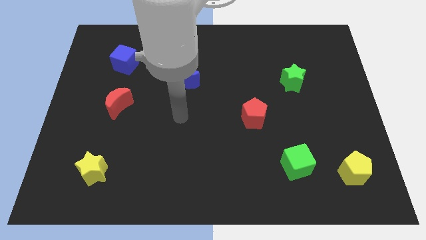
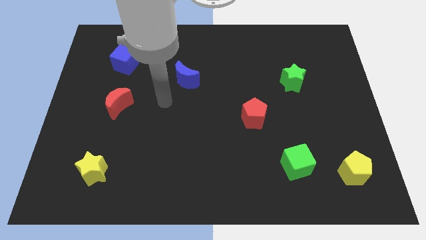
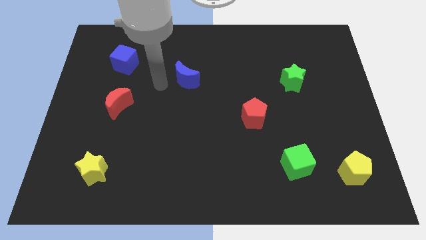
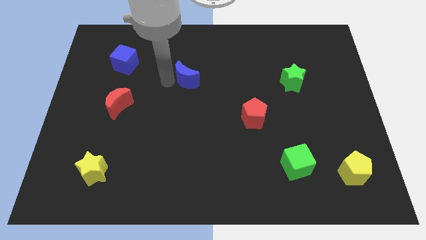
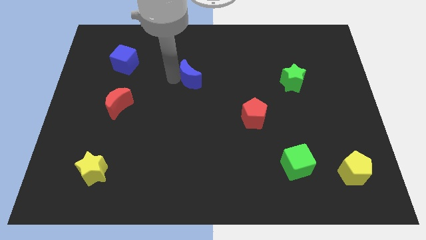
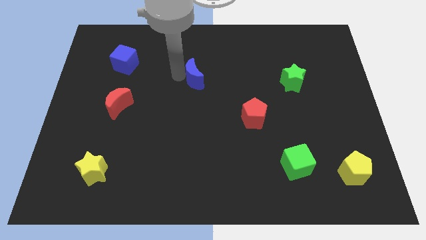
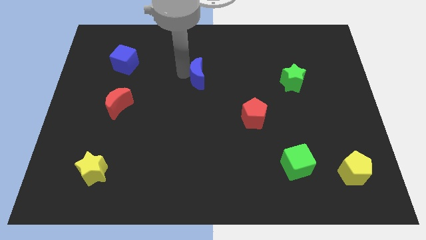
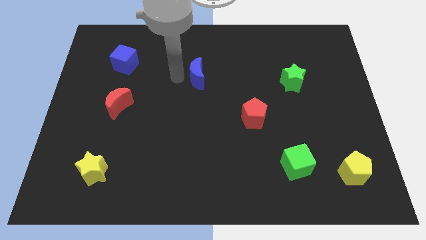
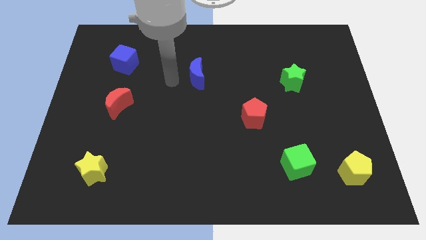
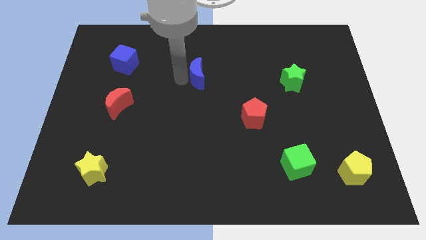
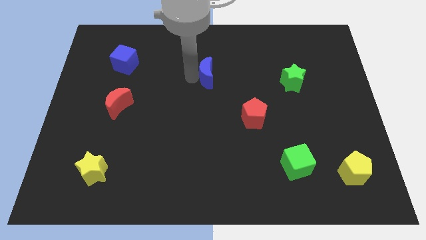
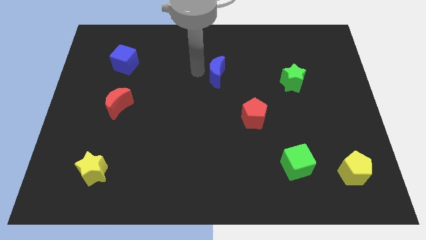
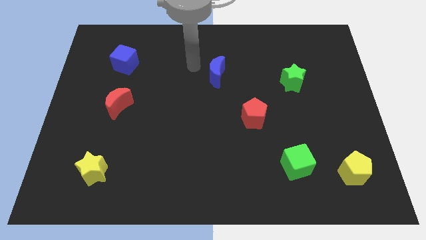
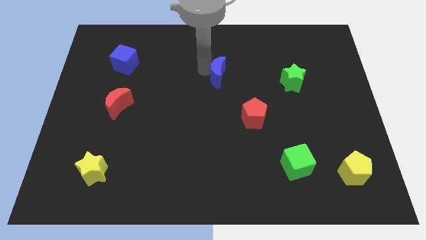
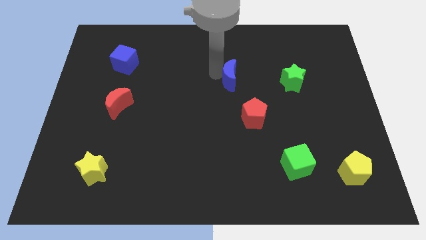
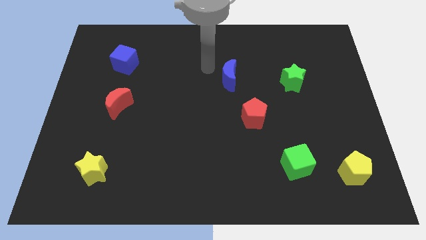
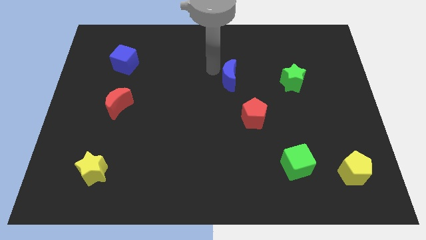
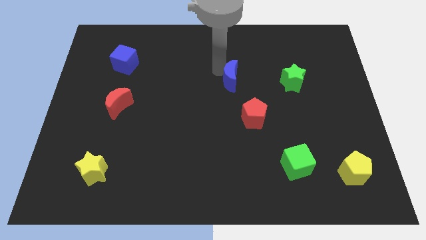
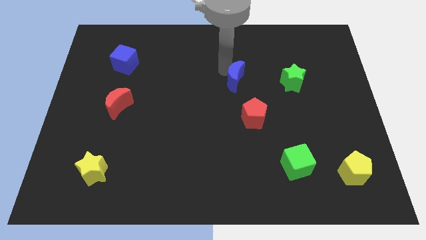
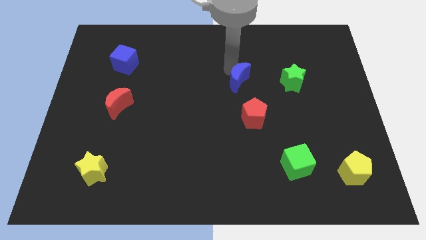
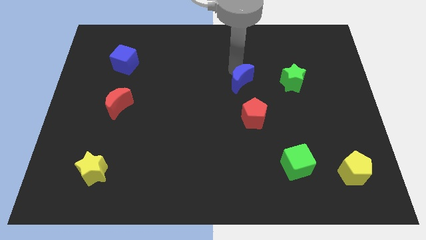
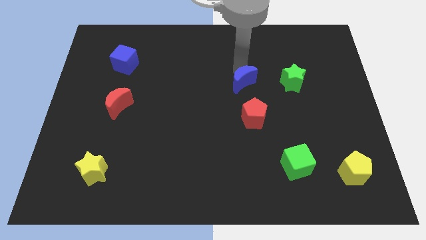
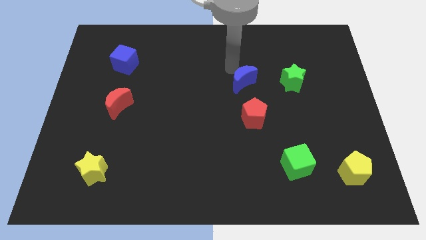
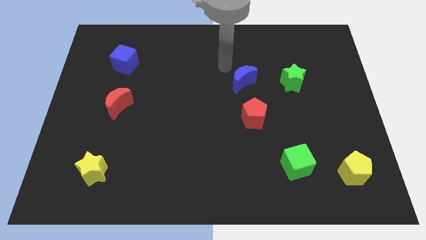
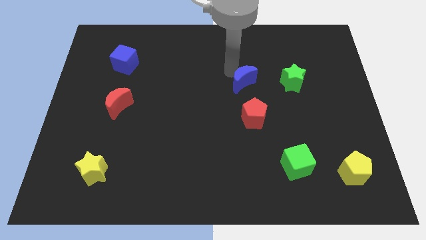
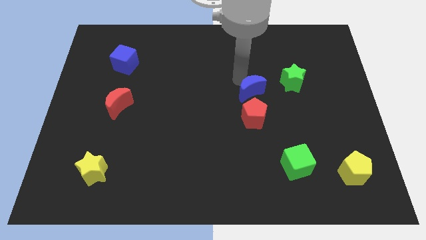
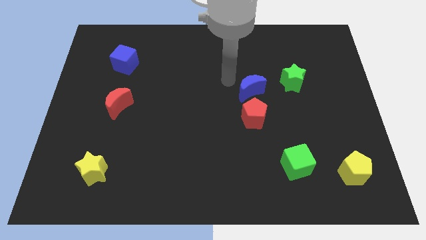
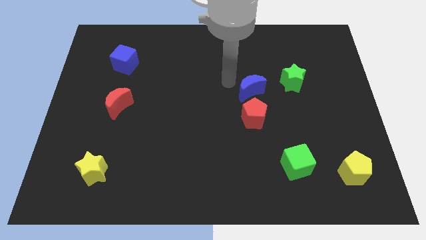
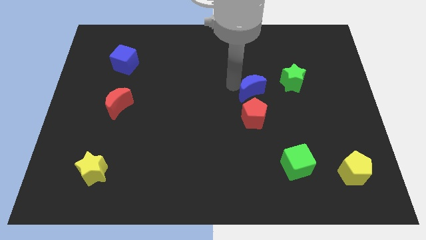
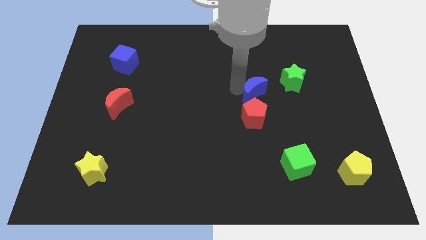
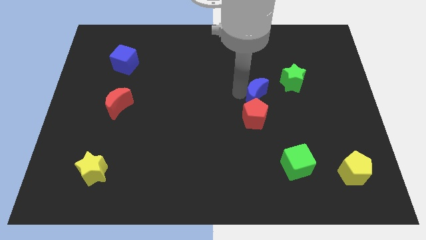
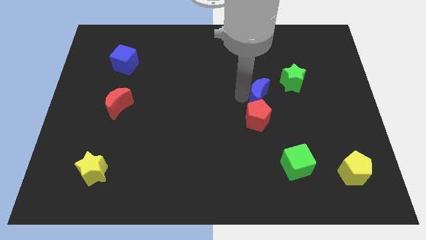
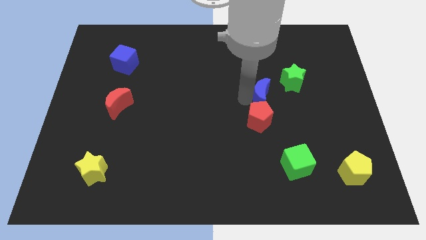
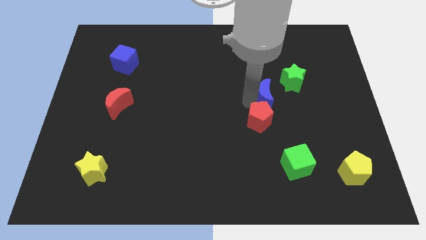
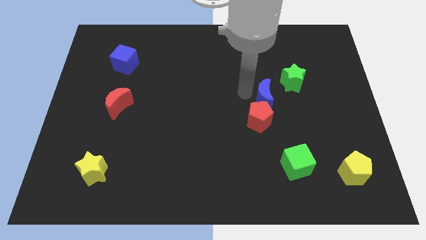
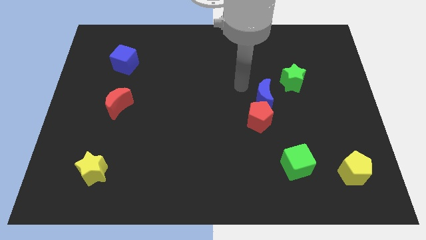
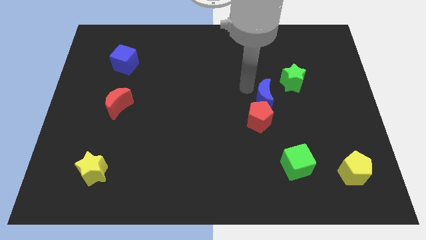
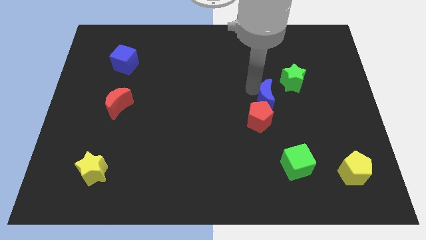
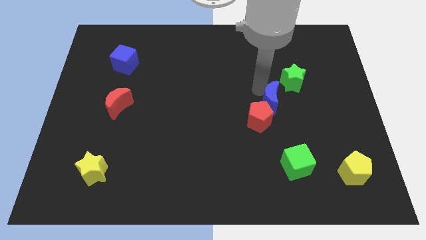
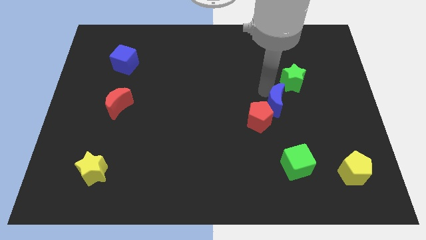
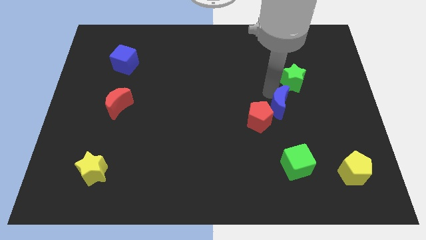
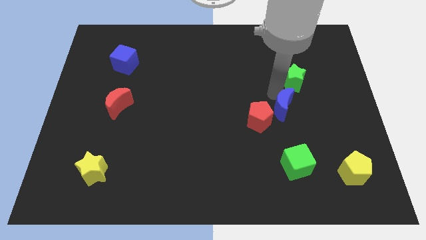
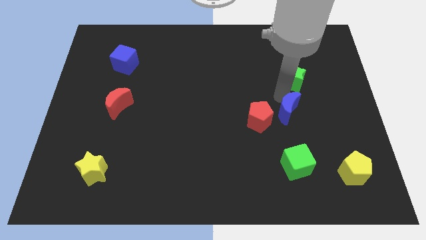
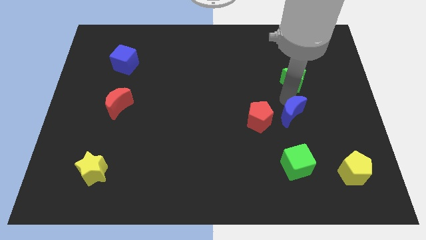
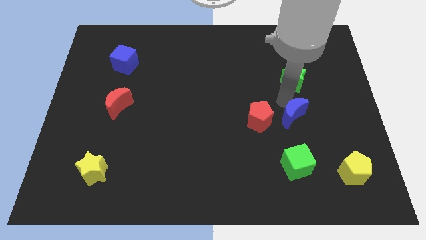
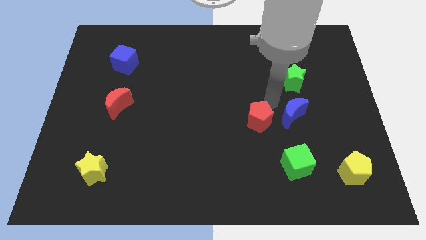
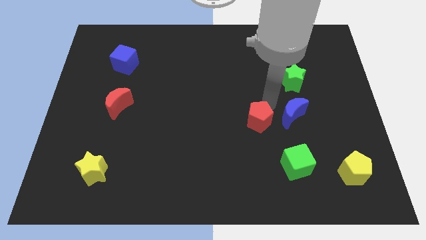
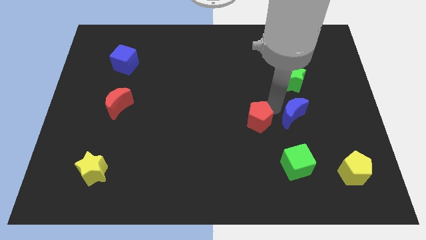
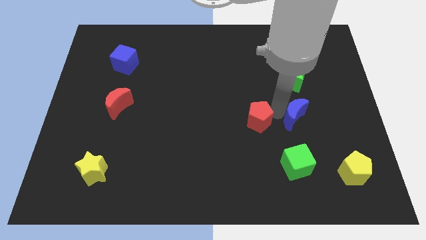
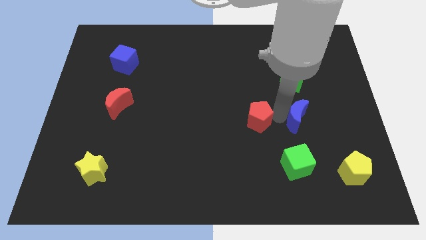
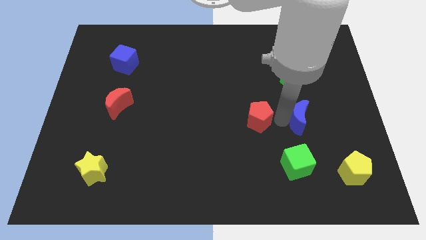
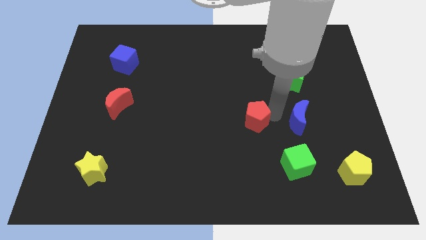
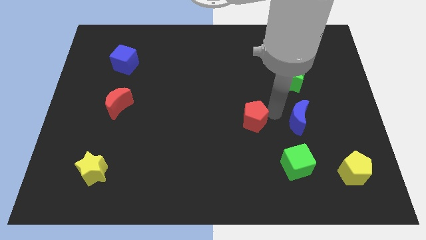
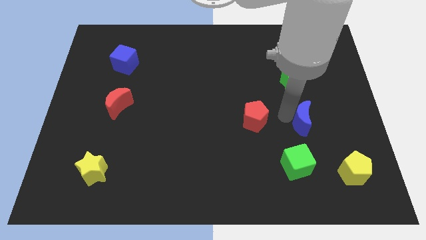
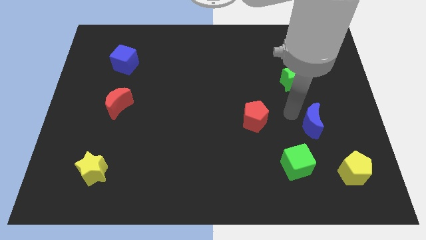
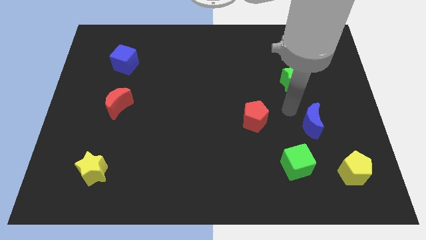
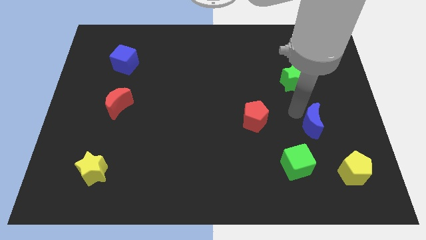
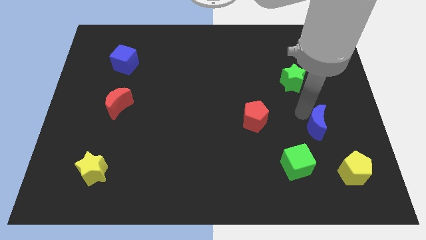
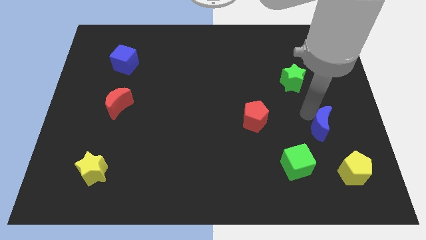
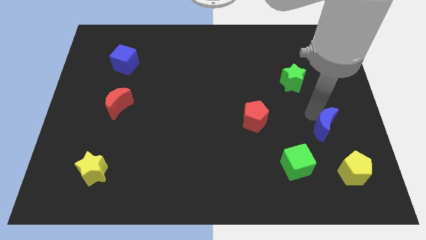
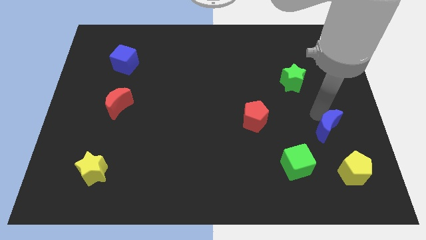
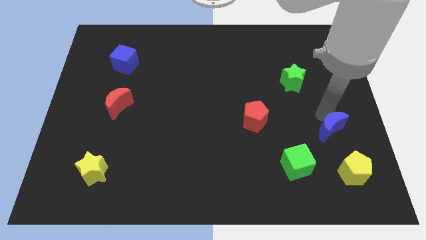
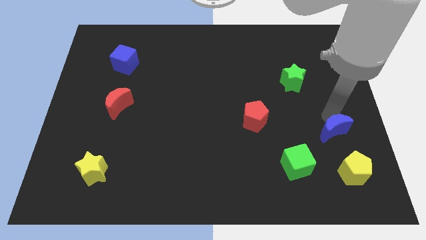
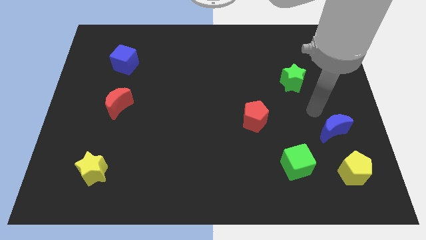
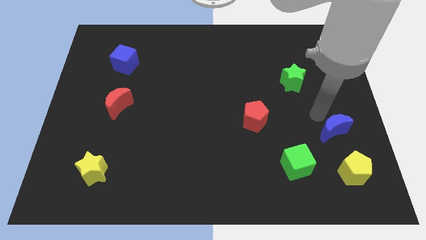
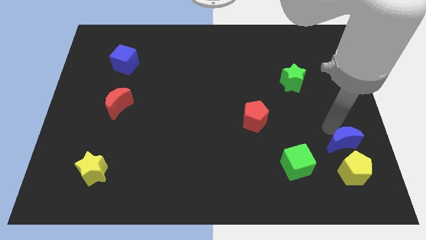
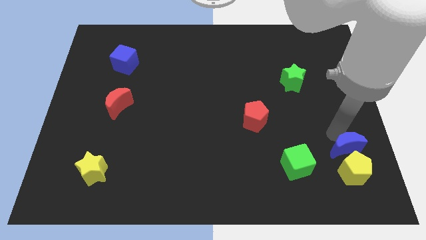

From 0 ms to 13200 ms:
slide the blue moon just right of the green cube
